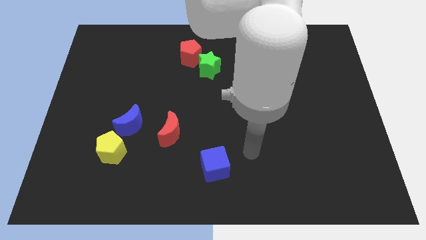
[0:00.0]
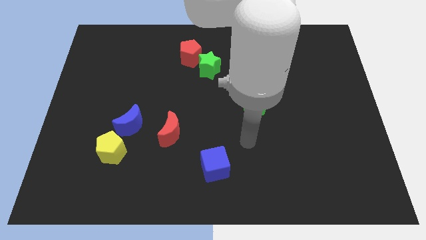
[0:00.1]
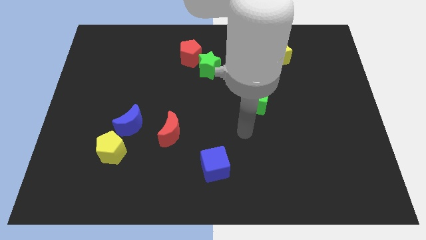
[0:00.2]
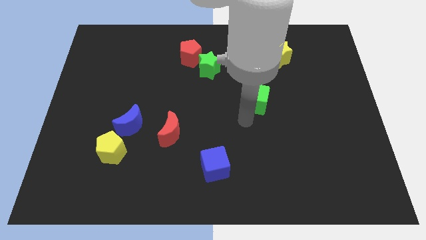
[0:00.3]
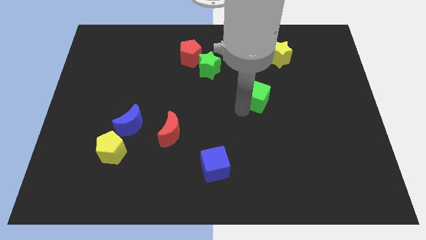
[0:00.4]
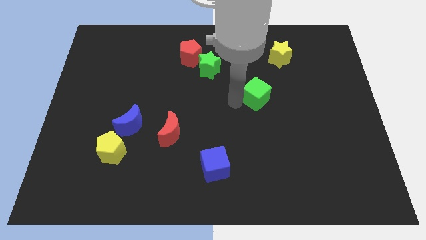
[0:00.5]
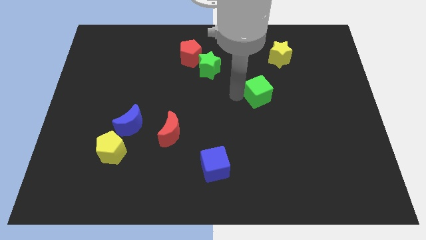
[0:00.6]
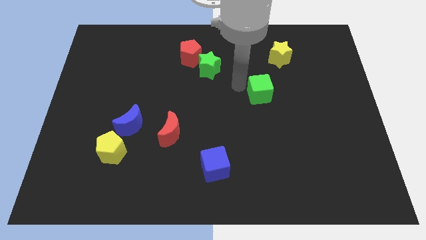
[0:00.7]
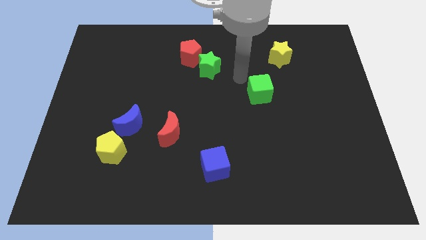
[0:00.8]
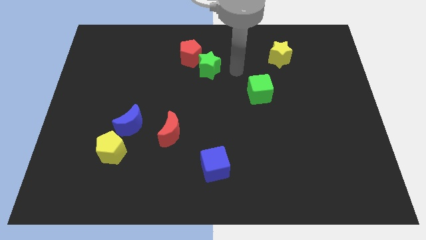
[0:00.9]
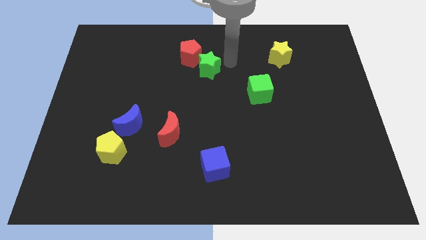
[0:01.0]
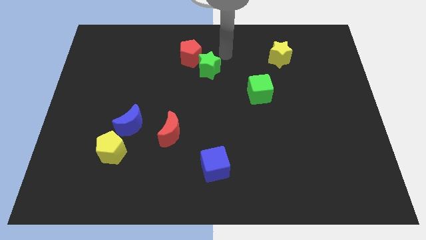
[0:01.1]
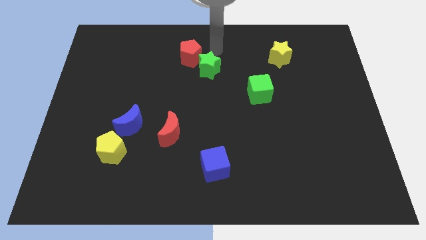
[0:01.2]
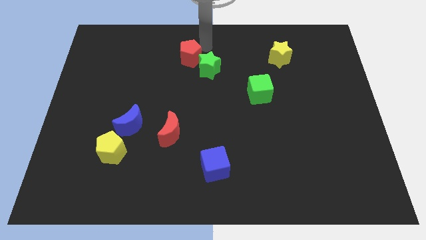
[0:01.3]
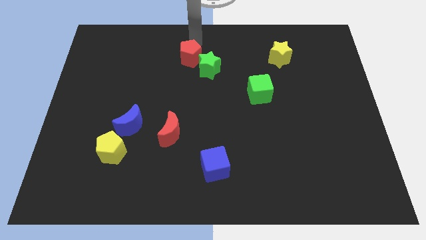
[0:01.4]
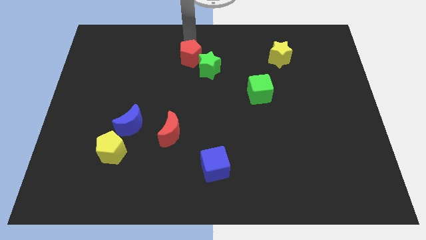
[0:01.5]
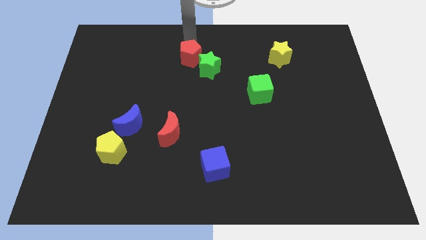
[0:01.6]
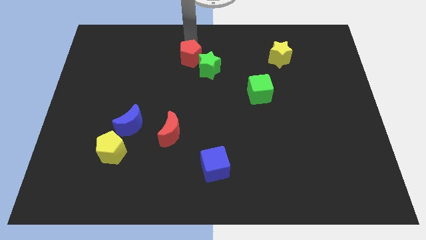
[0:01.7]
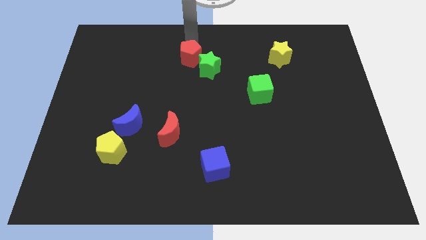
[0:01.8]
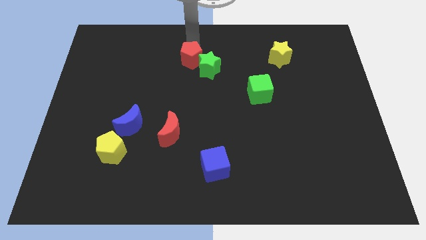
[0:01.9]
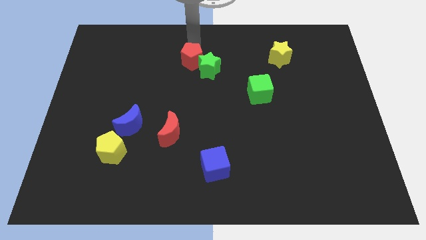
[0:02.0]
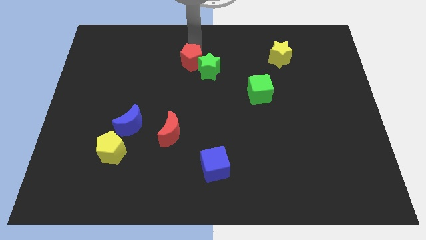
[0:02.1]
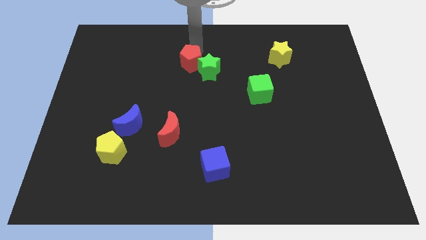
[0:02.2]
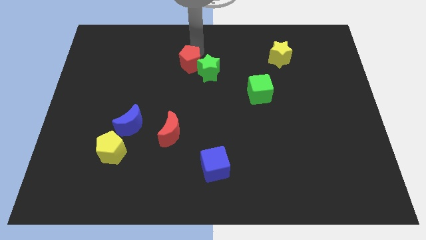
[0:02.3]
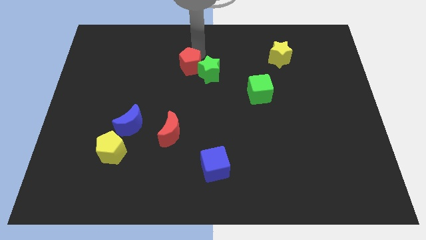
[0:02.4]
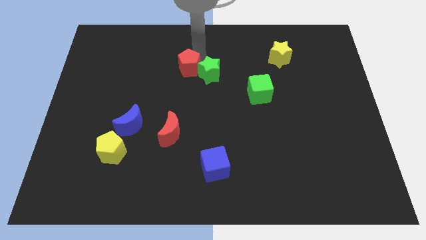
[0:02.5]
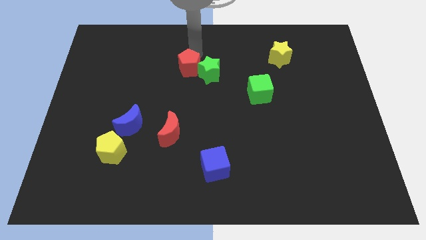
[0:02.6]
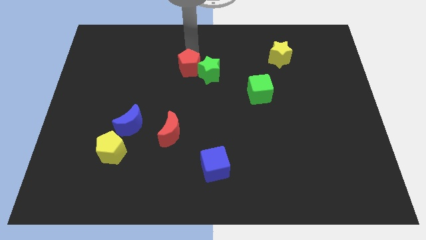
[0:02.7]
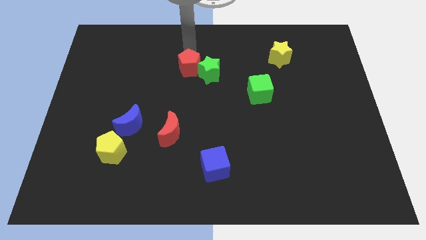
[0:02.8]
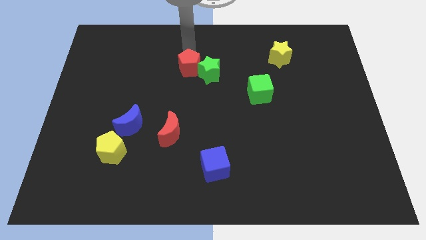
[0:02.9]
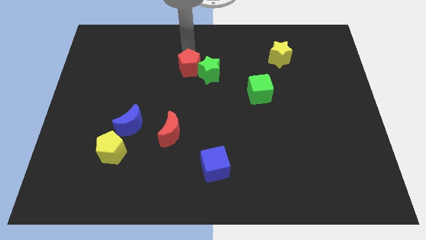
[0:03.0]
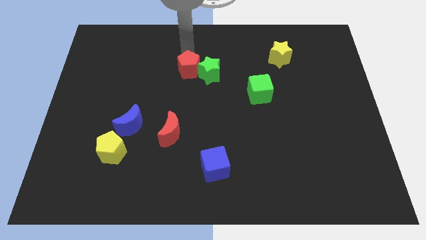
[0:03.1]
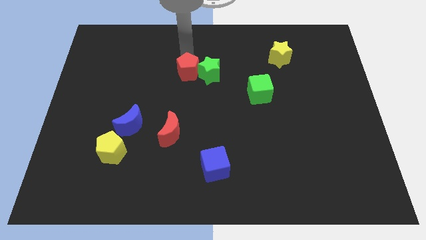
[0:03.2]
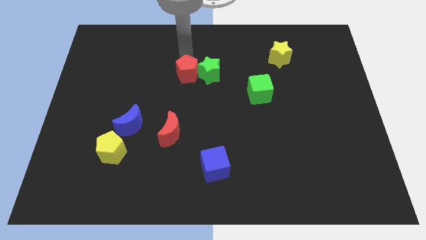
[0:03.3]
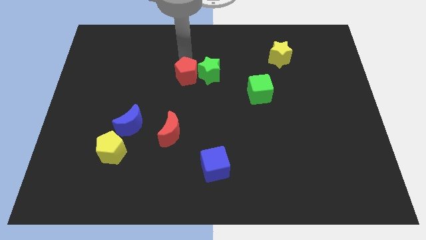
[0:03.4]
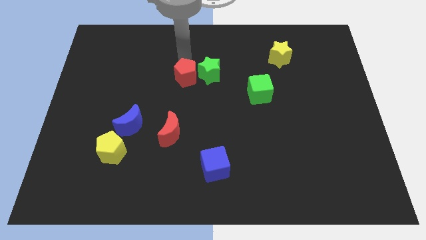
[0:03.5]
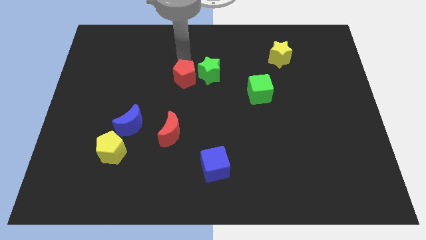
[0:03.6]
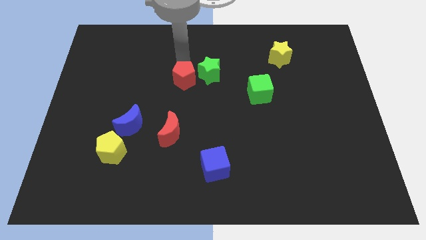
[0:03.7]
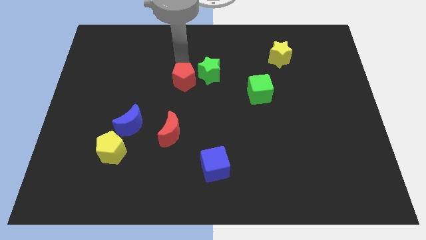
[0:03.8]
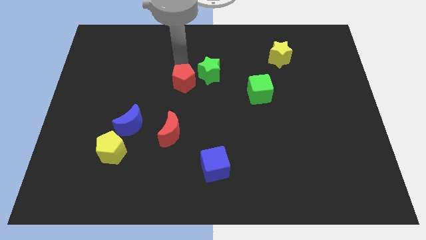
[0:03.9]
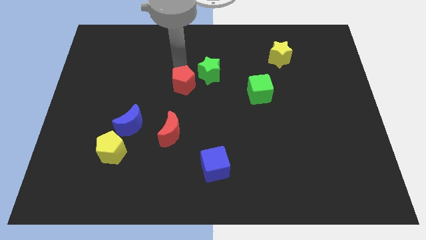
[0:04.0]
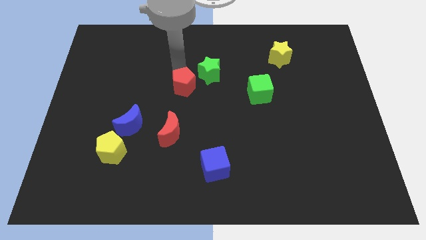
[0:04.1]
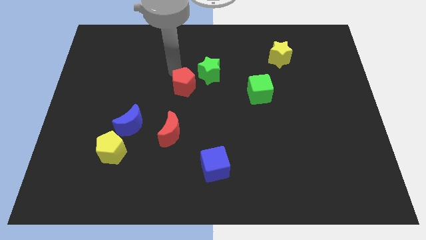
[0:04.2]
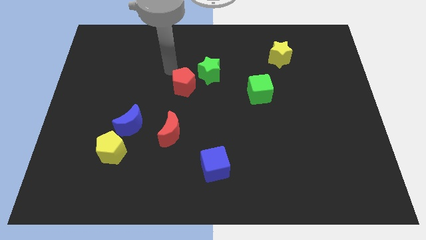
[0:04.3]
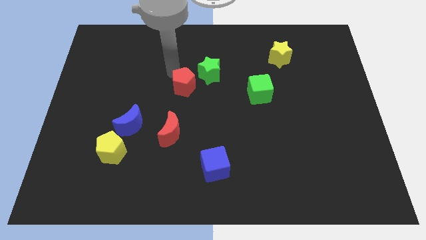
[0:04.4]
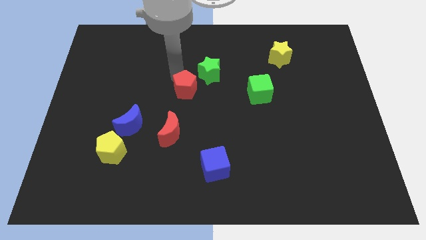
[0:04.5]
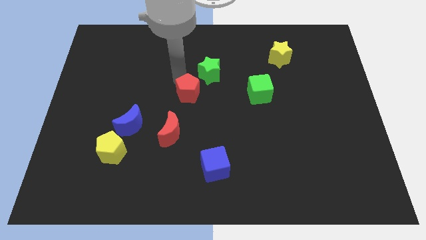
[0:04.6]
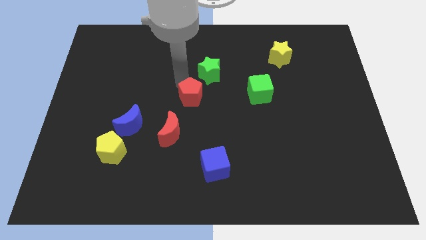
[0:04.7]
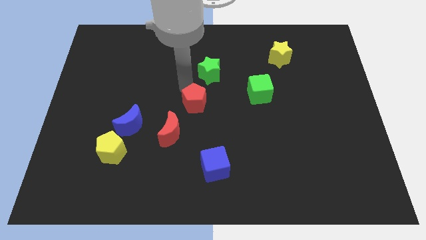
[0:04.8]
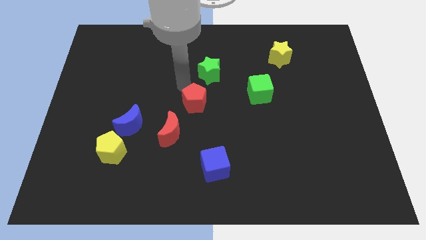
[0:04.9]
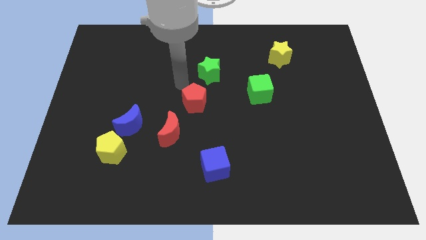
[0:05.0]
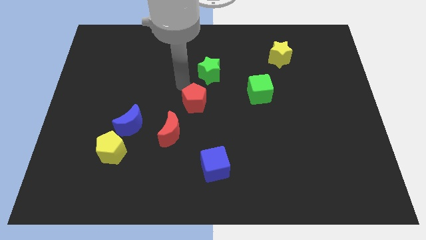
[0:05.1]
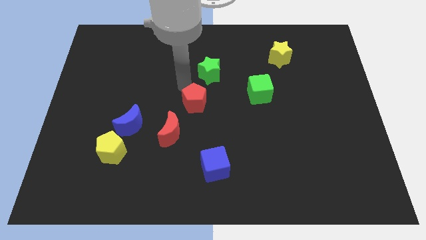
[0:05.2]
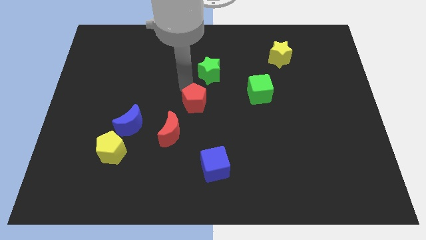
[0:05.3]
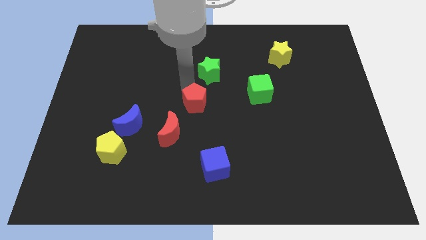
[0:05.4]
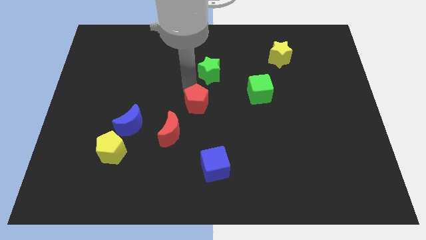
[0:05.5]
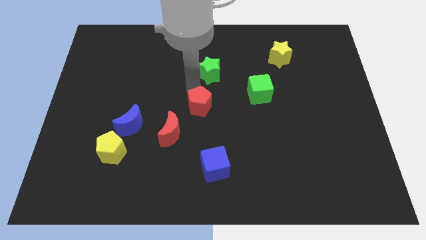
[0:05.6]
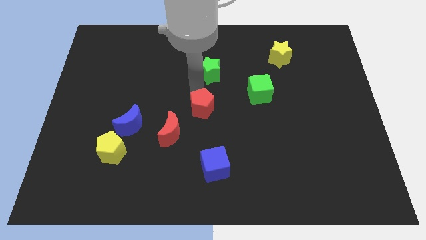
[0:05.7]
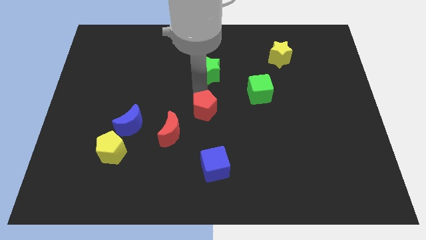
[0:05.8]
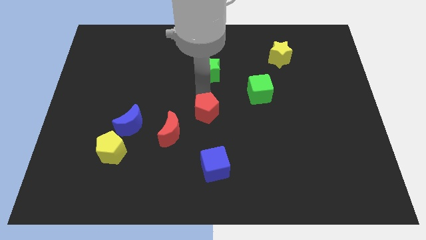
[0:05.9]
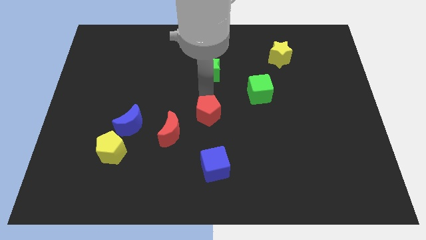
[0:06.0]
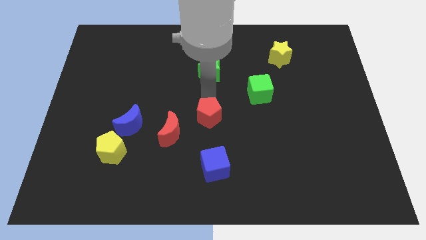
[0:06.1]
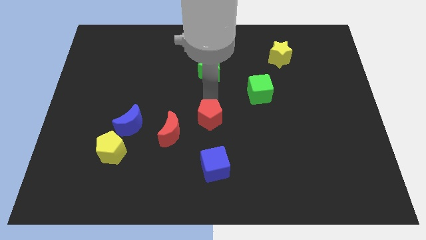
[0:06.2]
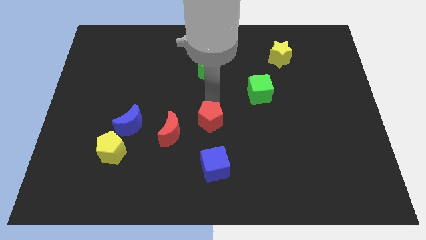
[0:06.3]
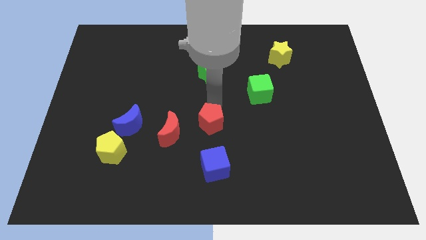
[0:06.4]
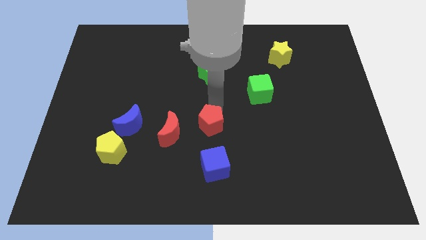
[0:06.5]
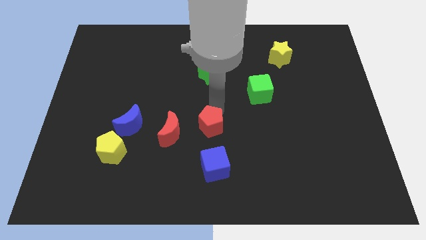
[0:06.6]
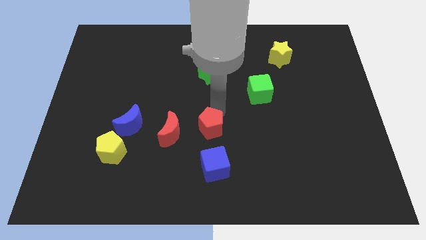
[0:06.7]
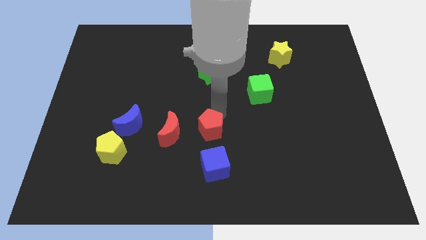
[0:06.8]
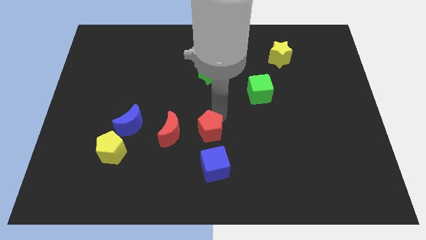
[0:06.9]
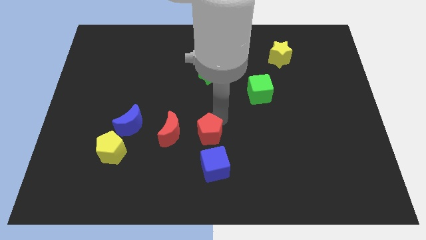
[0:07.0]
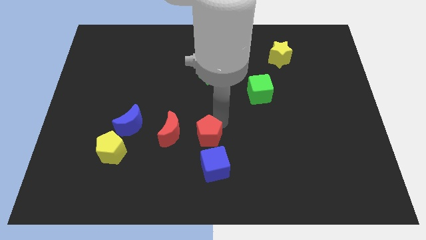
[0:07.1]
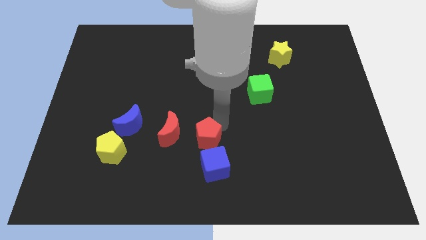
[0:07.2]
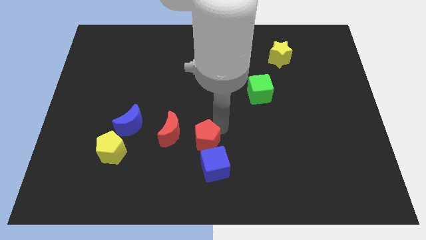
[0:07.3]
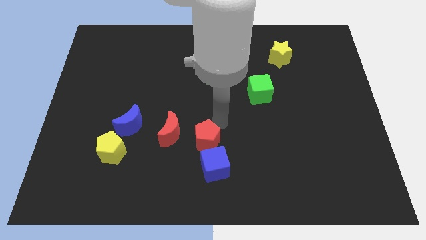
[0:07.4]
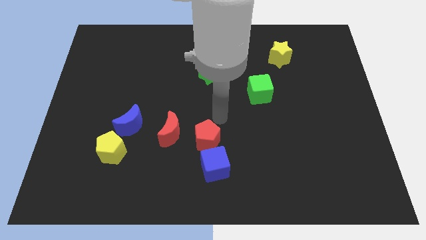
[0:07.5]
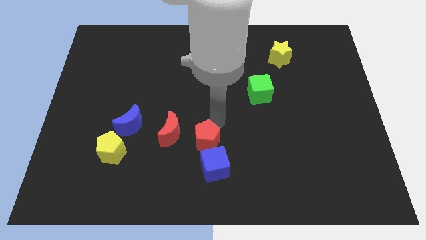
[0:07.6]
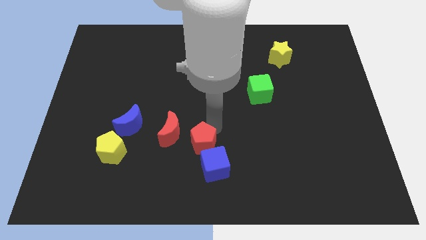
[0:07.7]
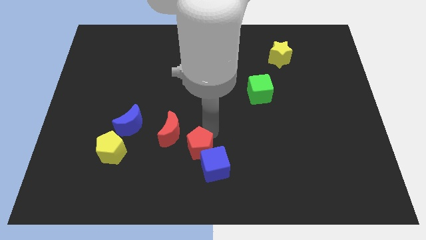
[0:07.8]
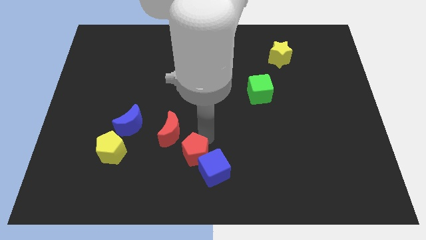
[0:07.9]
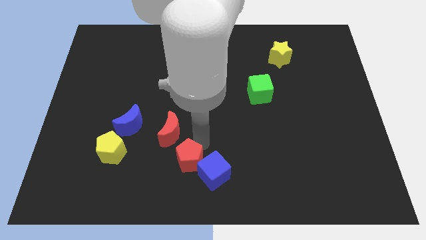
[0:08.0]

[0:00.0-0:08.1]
move the red pentagon to the bottom
